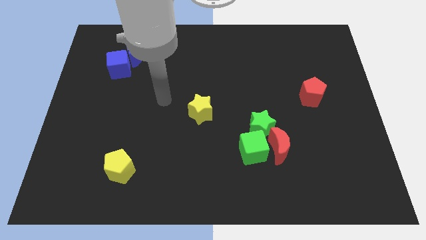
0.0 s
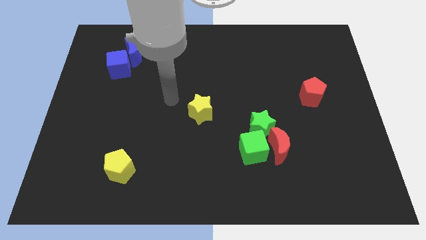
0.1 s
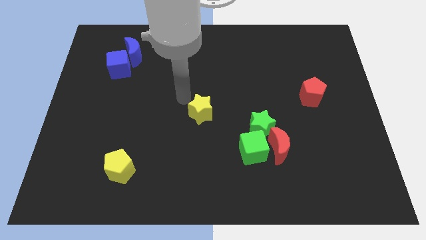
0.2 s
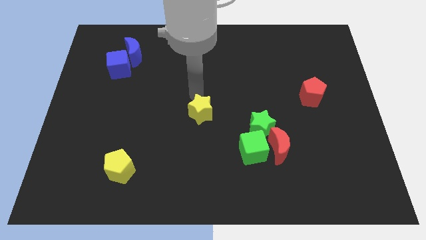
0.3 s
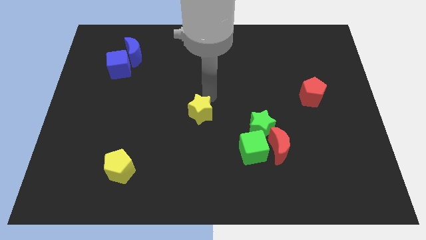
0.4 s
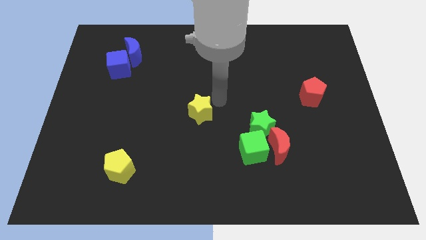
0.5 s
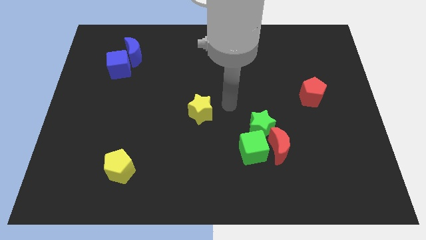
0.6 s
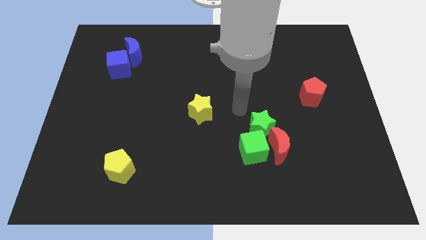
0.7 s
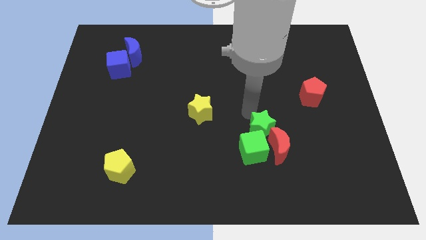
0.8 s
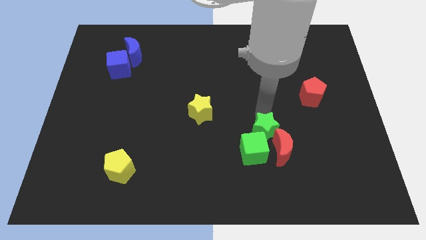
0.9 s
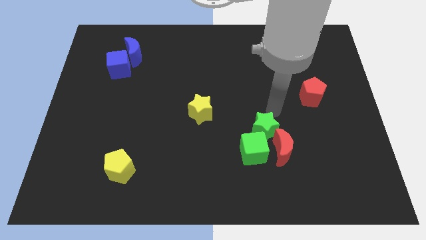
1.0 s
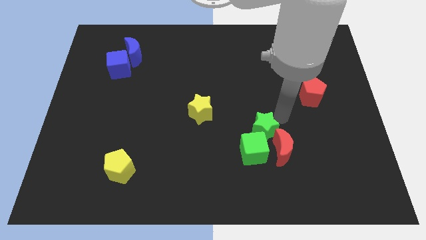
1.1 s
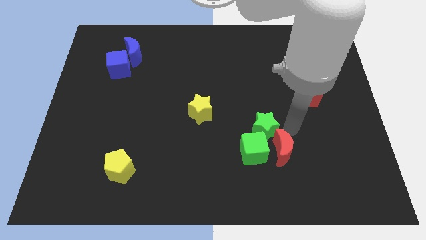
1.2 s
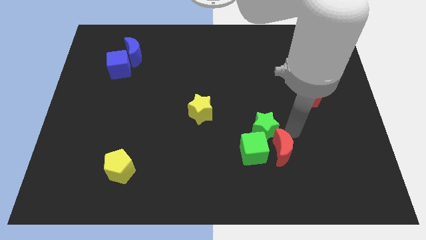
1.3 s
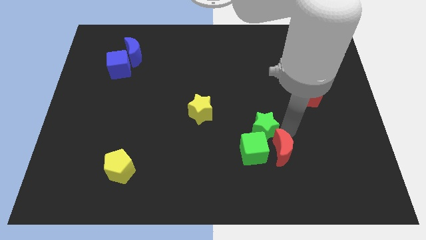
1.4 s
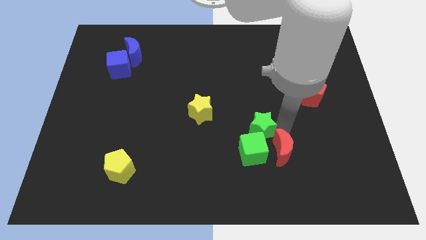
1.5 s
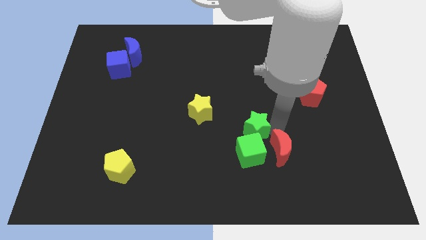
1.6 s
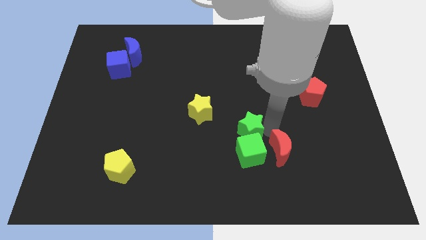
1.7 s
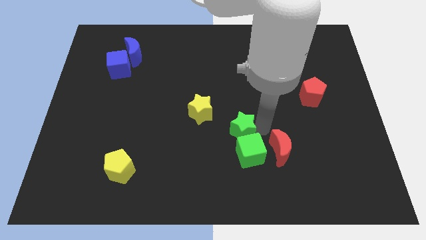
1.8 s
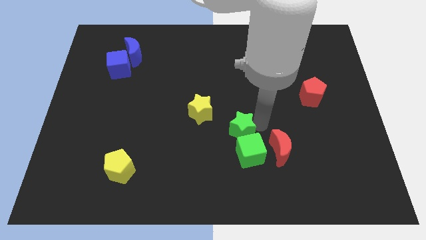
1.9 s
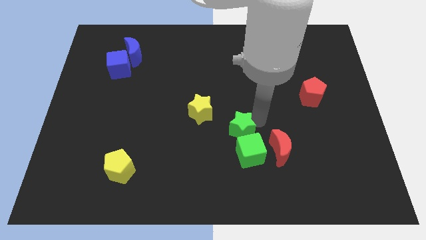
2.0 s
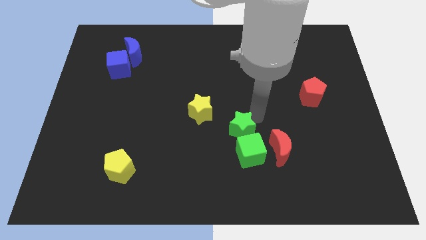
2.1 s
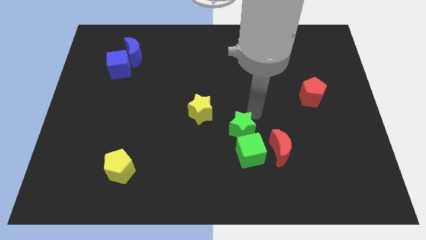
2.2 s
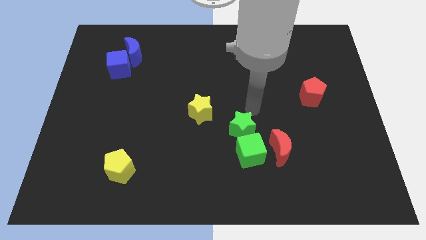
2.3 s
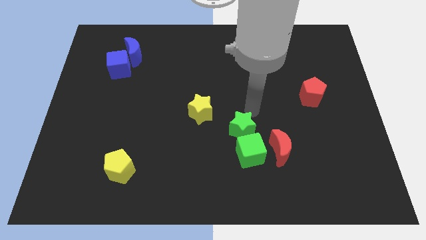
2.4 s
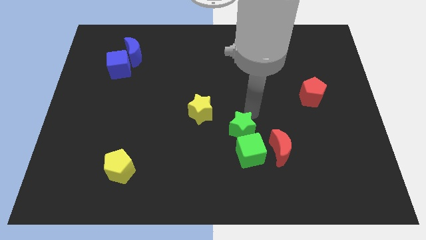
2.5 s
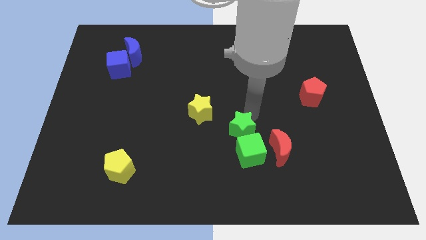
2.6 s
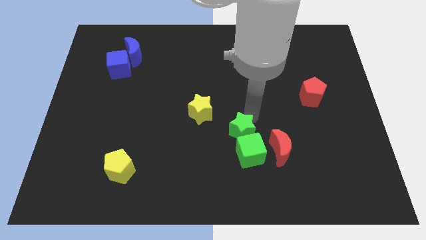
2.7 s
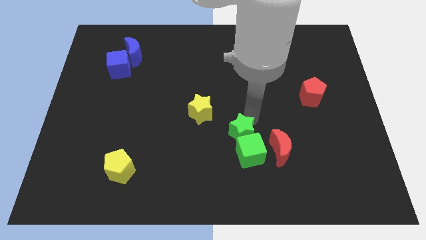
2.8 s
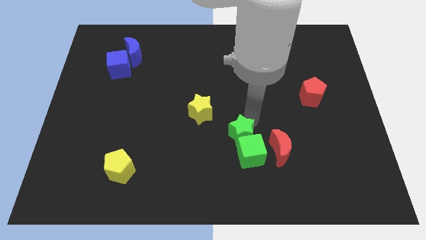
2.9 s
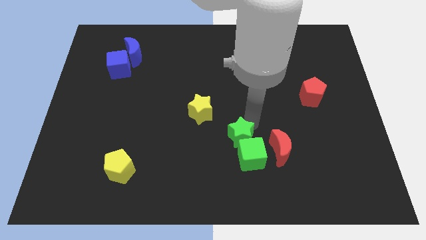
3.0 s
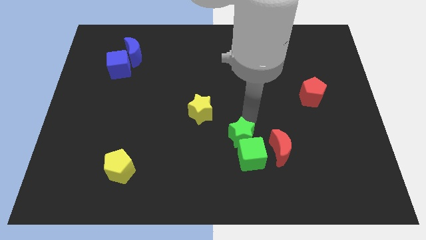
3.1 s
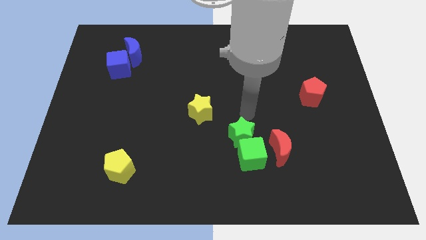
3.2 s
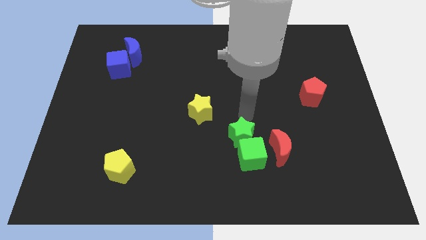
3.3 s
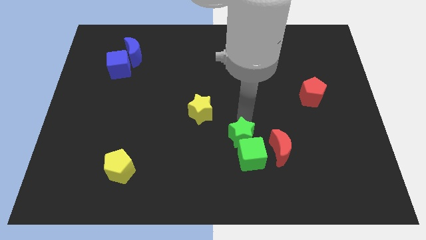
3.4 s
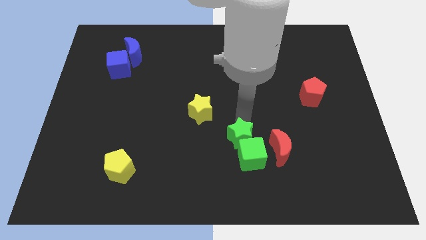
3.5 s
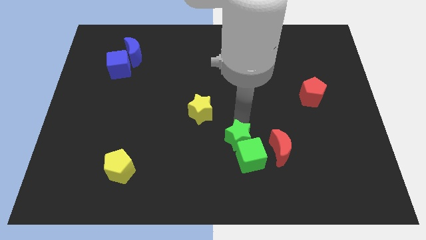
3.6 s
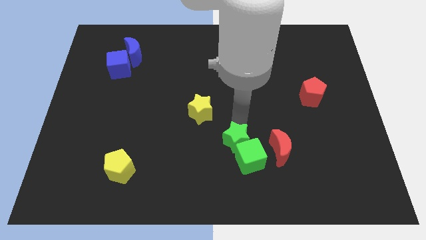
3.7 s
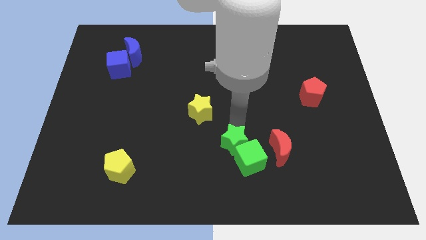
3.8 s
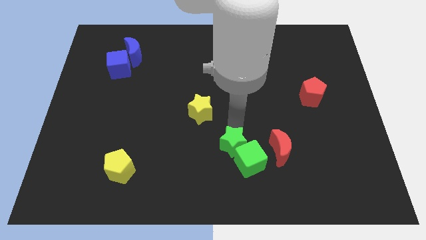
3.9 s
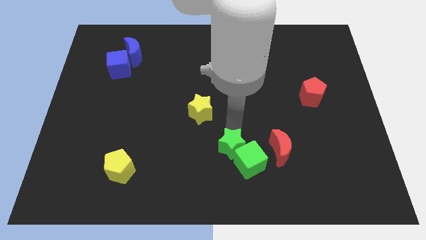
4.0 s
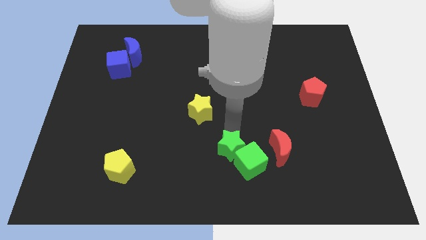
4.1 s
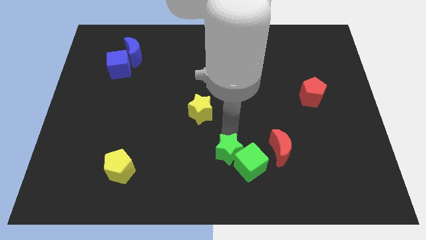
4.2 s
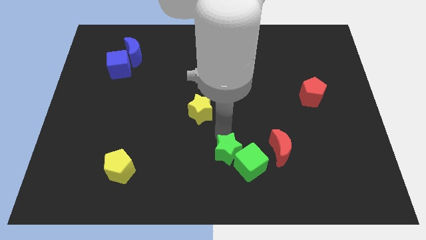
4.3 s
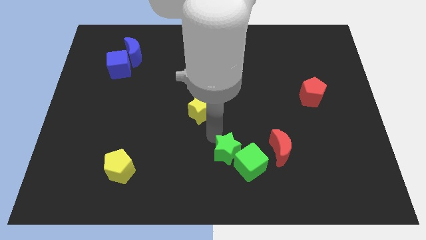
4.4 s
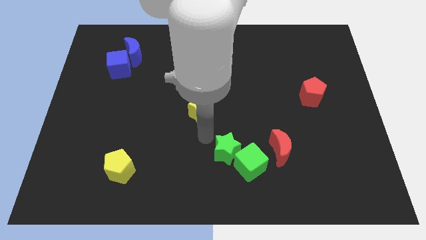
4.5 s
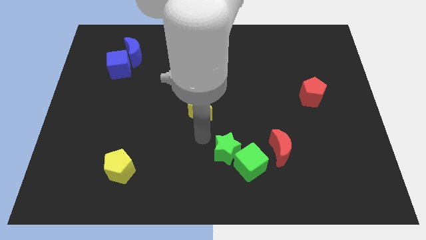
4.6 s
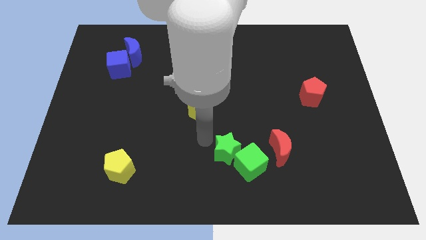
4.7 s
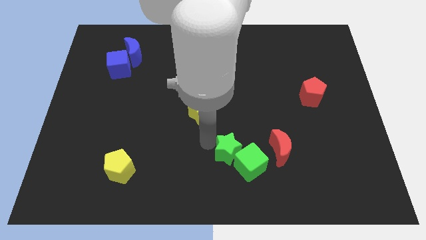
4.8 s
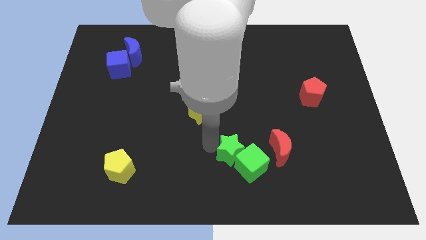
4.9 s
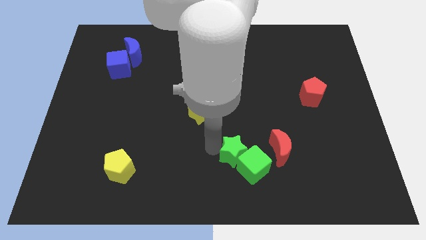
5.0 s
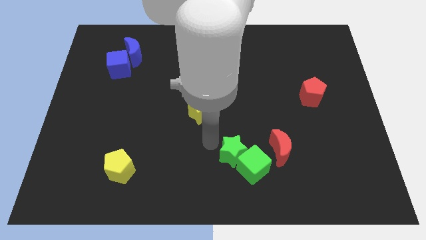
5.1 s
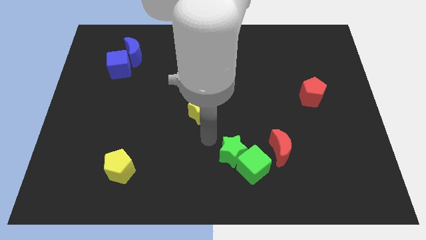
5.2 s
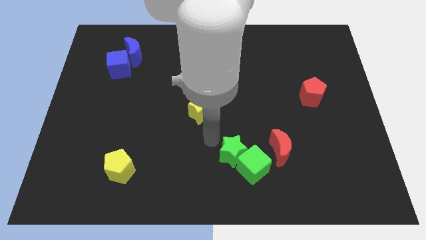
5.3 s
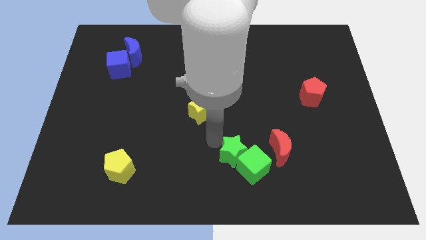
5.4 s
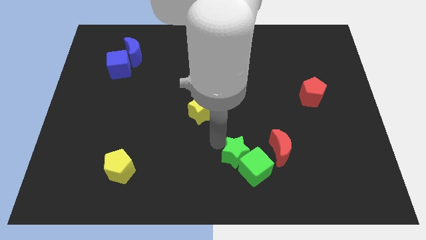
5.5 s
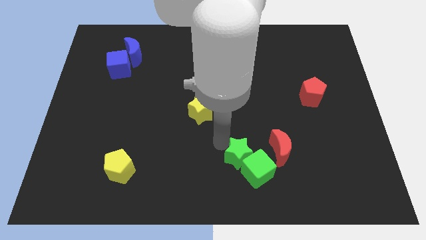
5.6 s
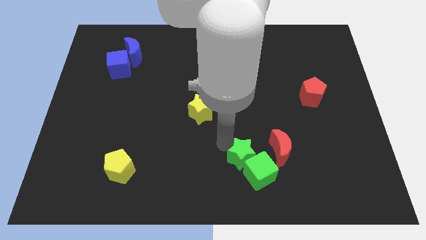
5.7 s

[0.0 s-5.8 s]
put the green star diagonally down and to the left of the red moon

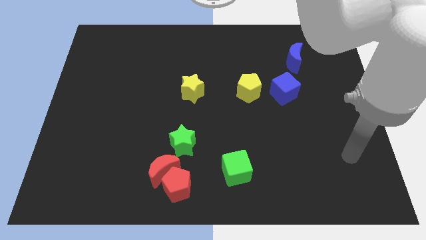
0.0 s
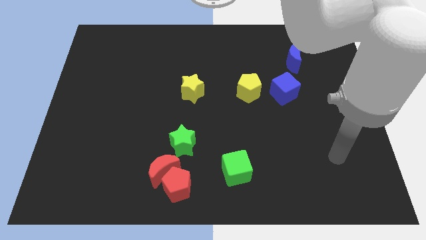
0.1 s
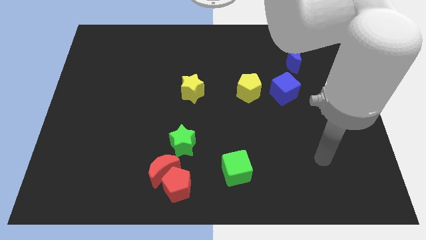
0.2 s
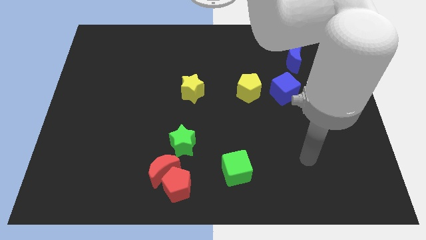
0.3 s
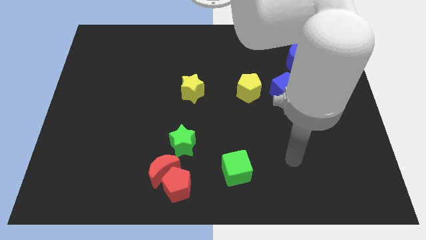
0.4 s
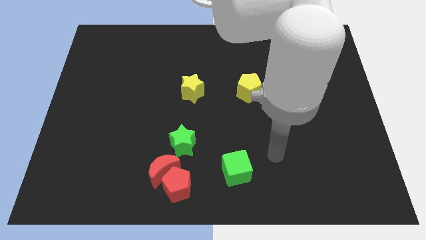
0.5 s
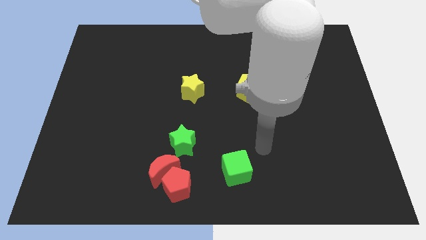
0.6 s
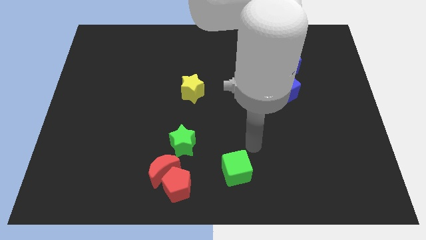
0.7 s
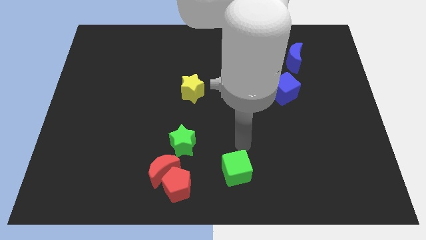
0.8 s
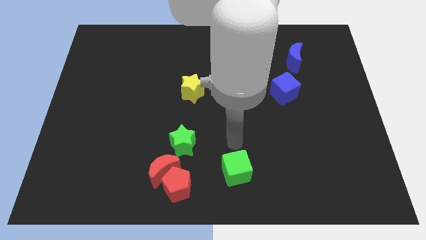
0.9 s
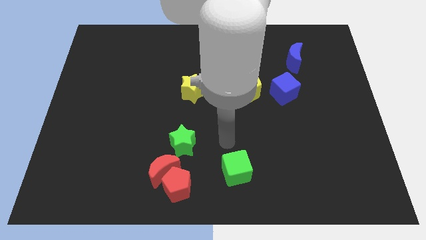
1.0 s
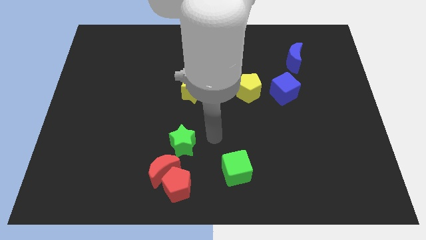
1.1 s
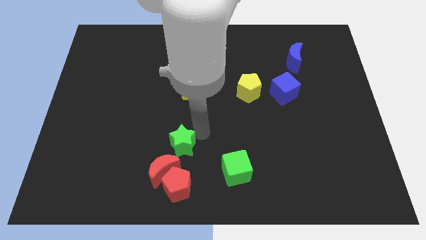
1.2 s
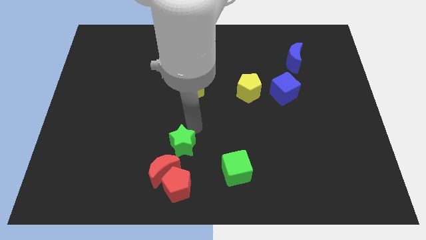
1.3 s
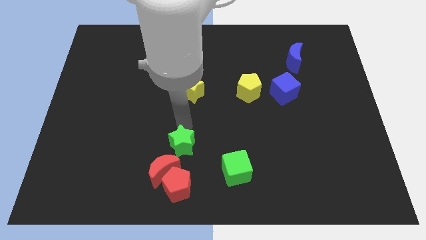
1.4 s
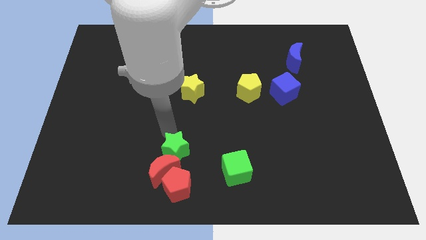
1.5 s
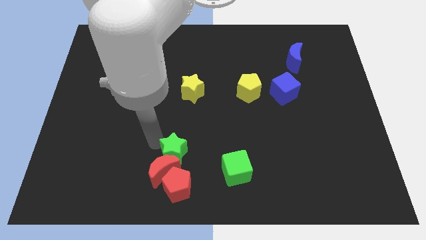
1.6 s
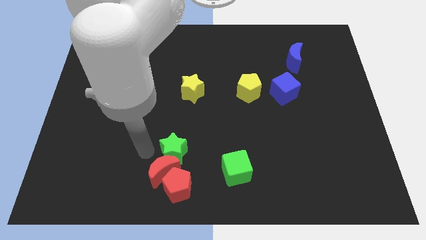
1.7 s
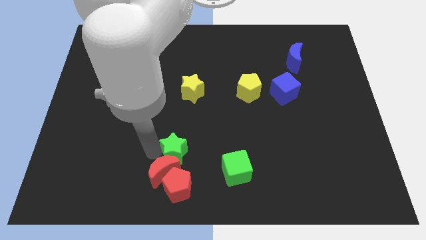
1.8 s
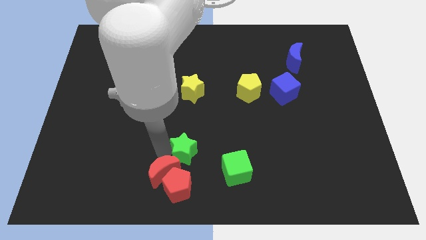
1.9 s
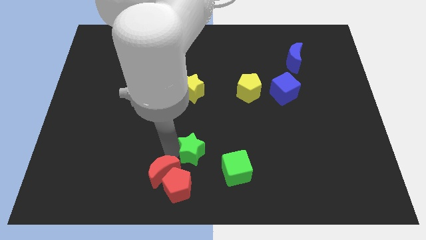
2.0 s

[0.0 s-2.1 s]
slide the green star to the top left side of the green cube
